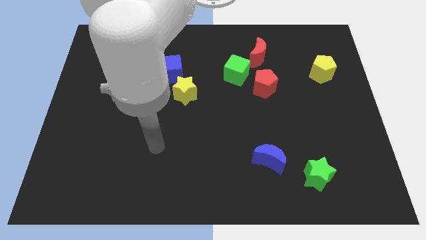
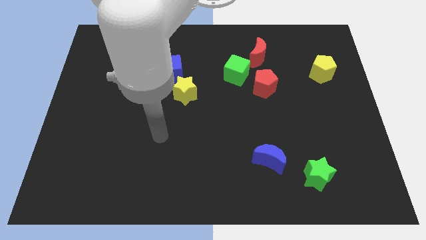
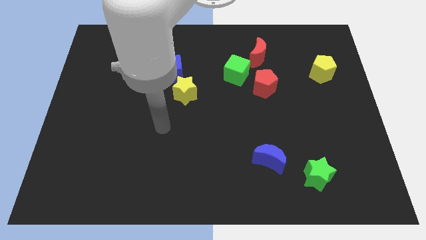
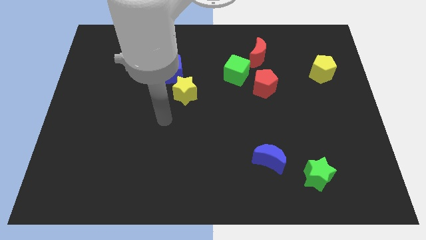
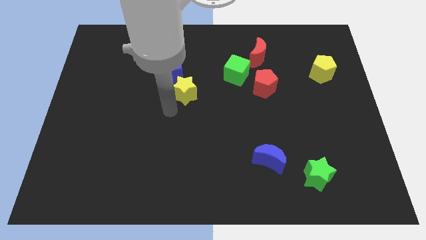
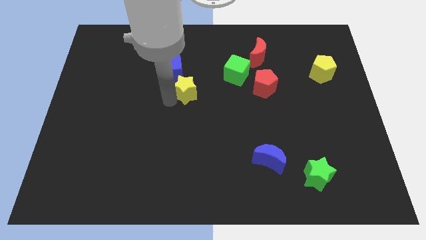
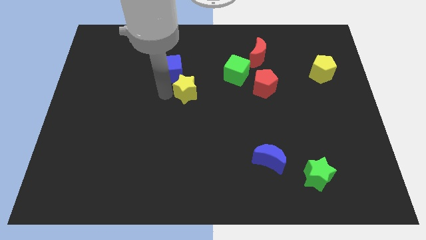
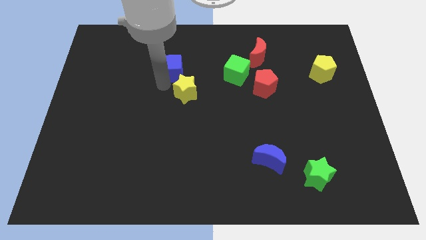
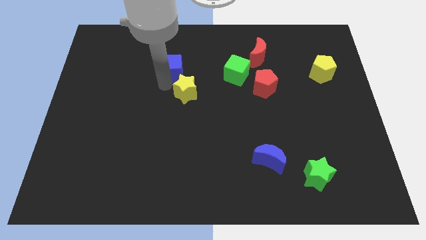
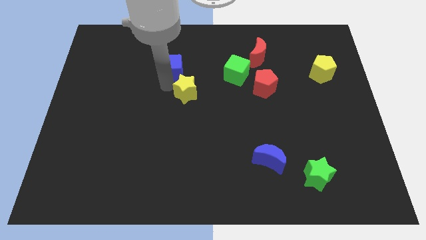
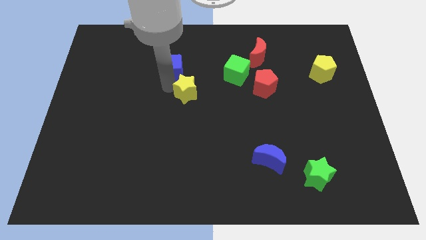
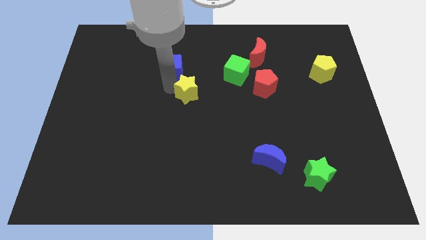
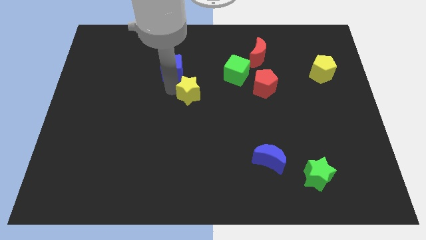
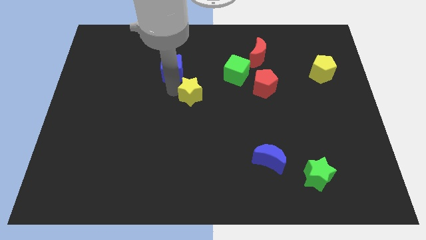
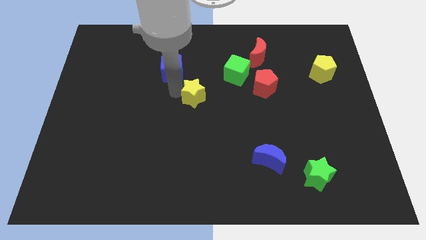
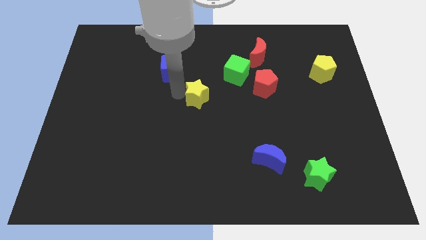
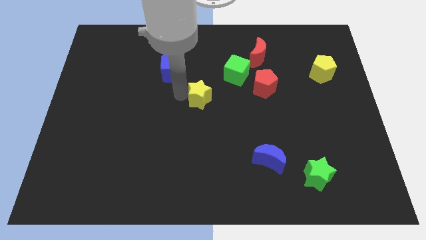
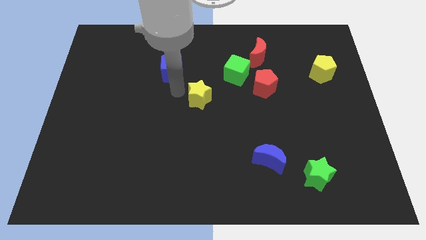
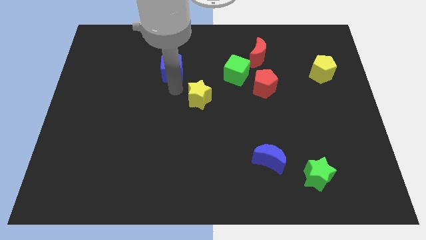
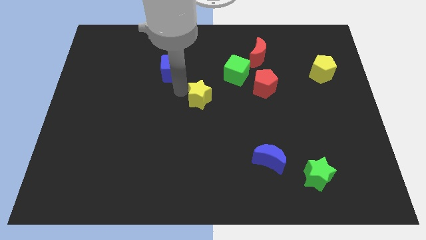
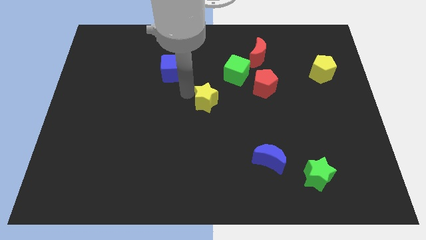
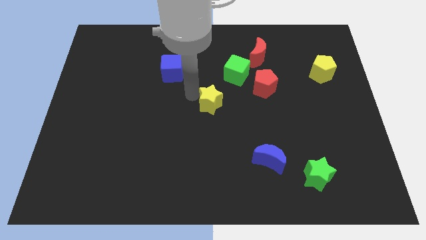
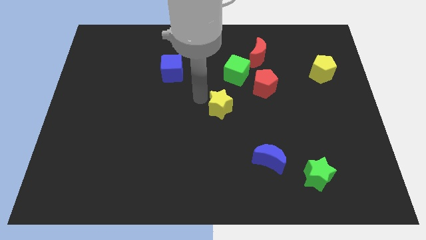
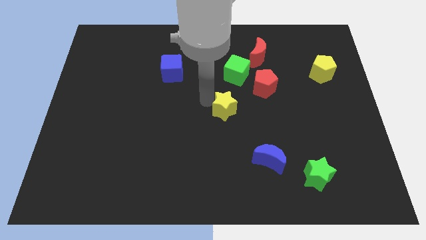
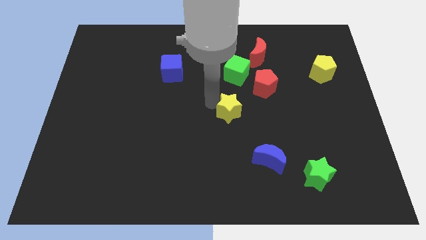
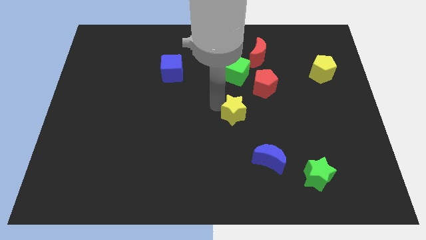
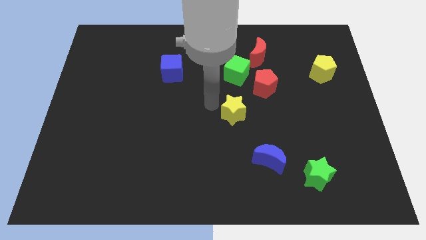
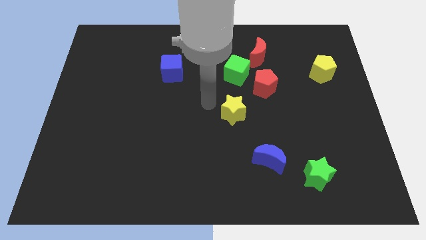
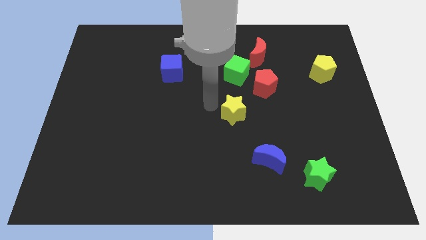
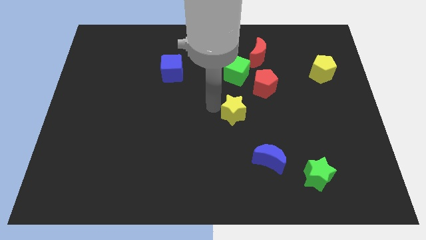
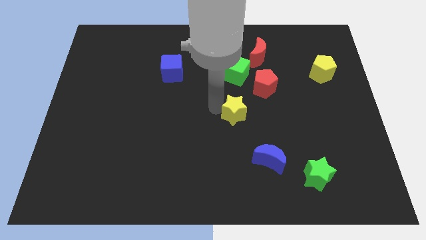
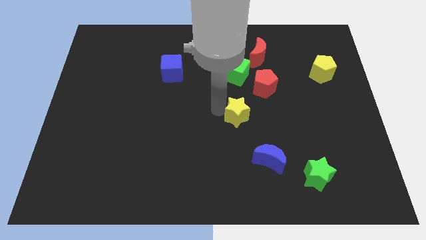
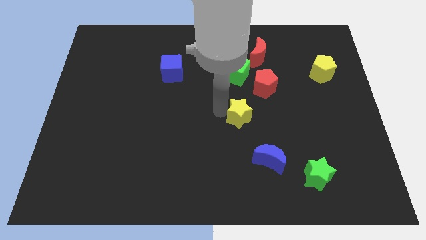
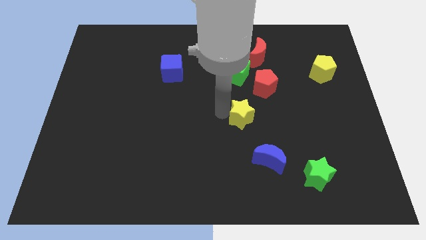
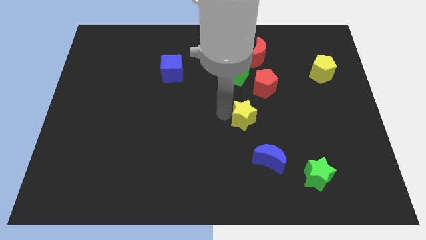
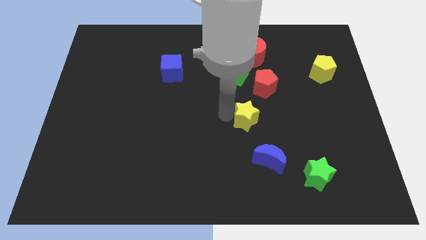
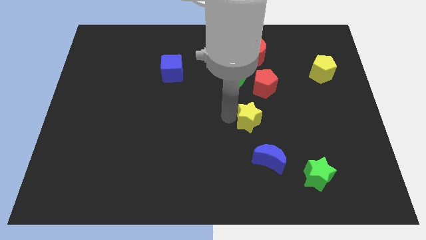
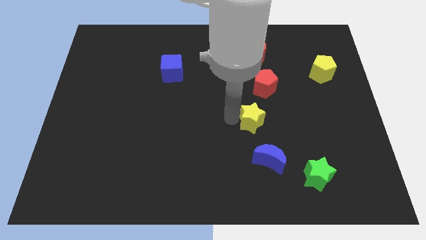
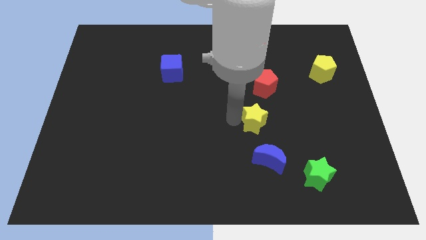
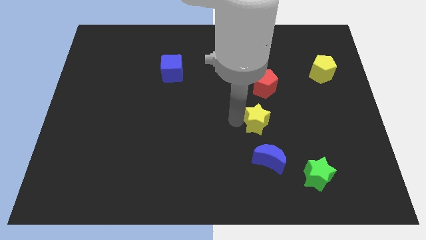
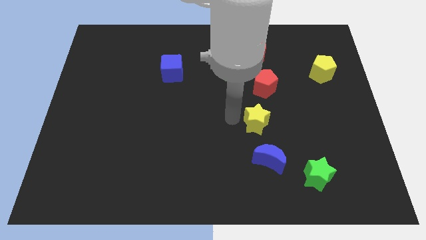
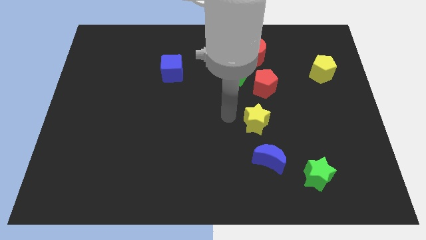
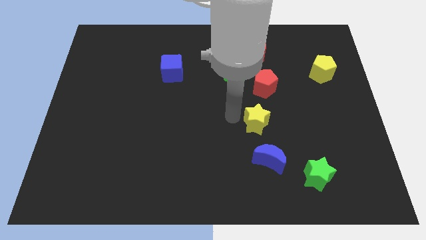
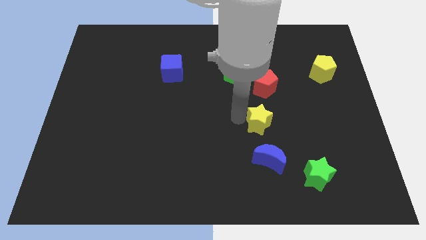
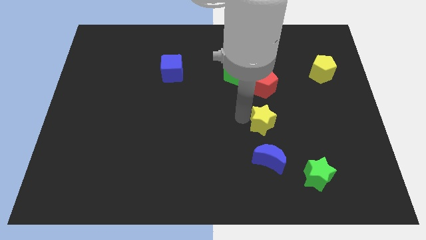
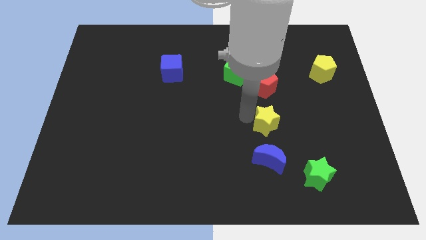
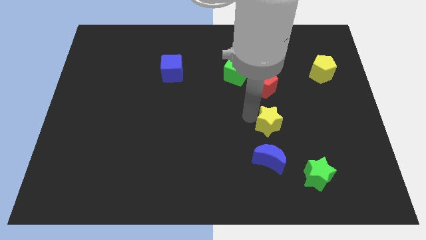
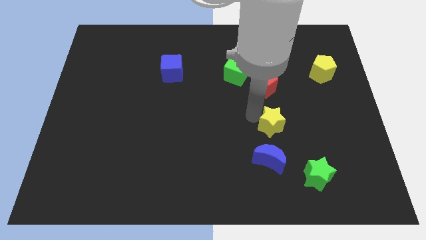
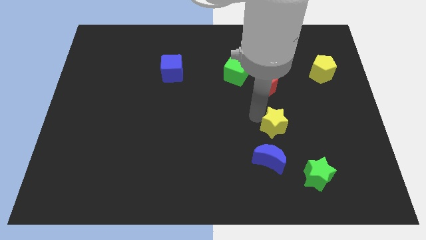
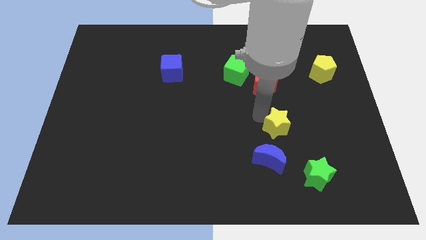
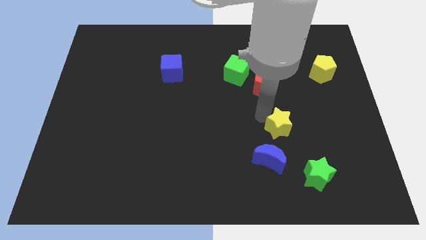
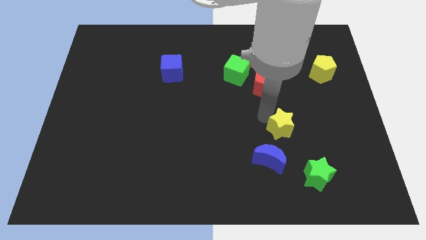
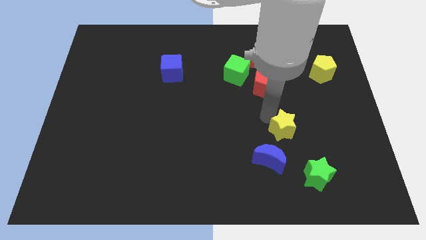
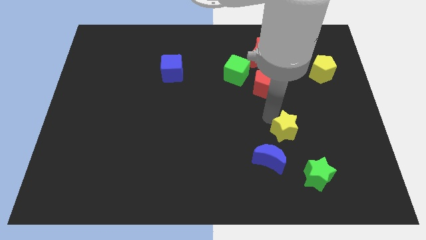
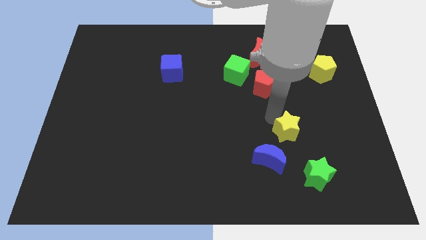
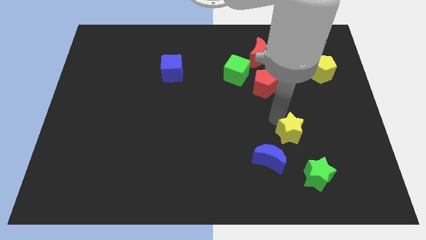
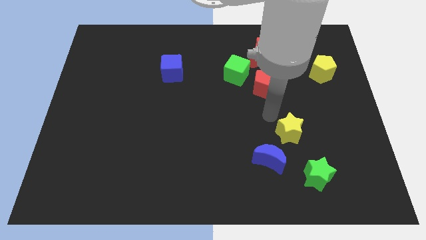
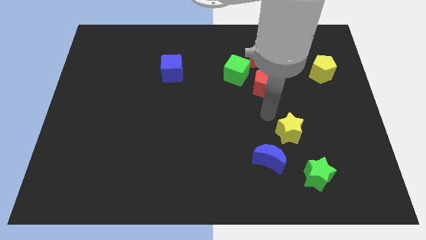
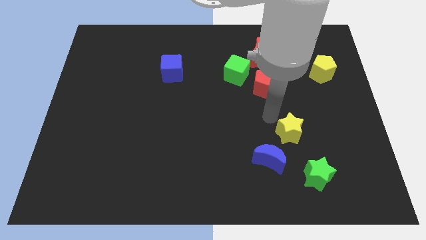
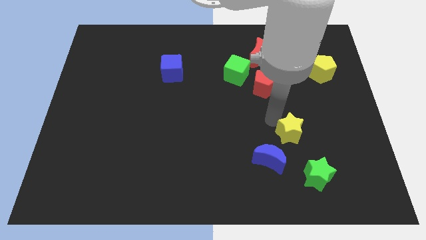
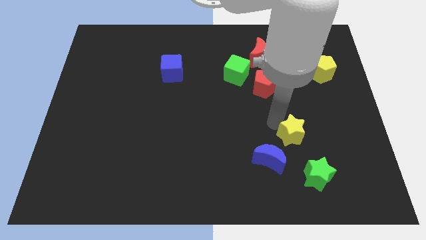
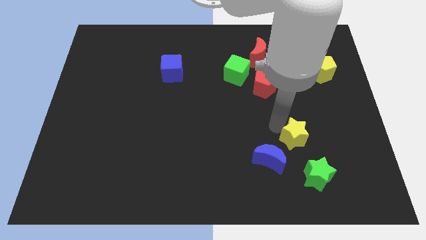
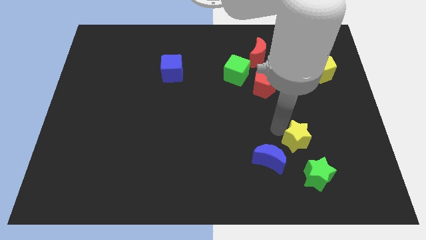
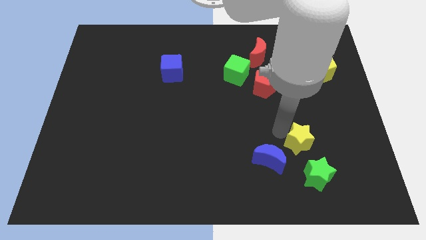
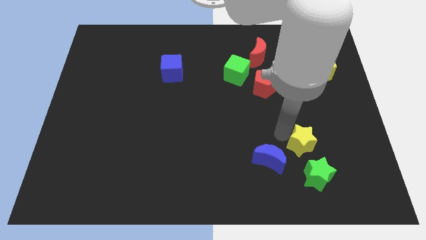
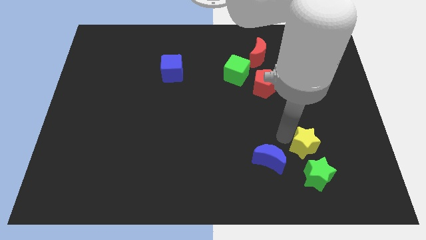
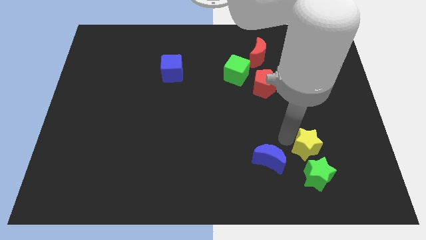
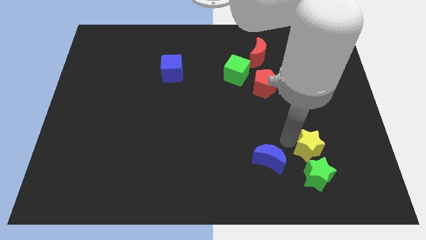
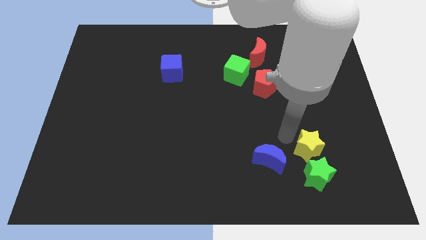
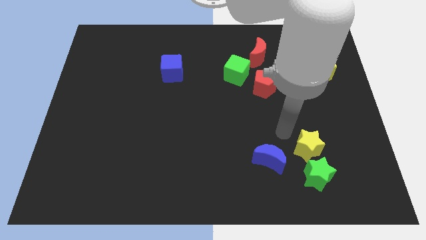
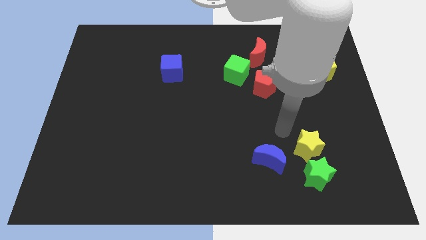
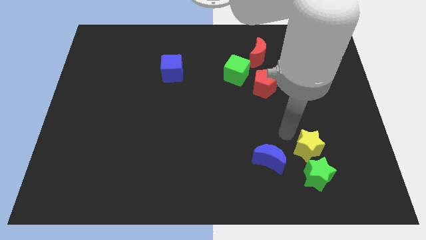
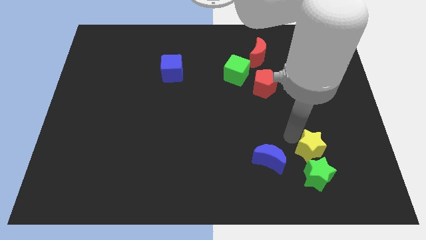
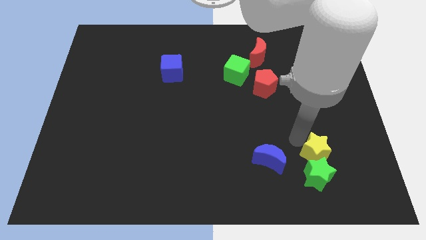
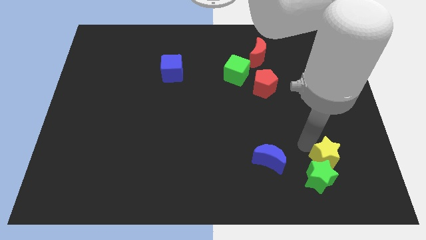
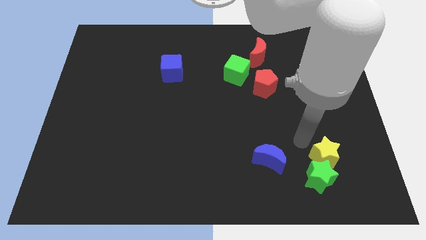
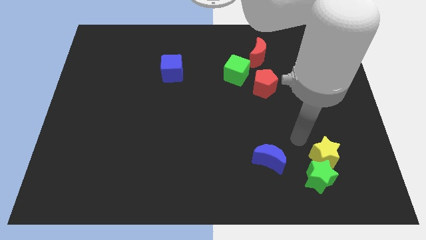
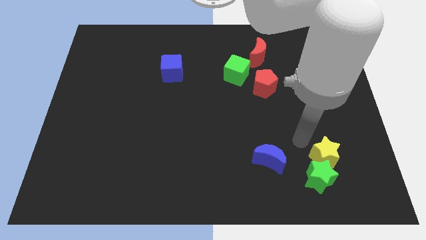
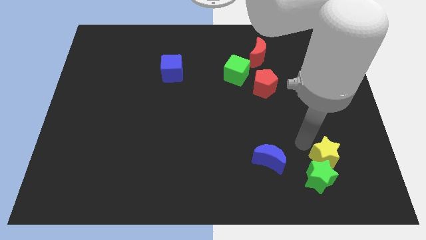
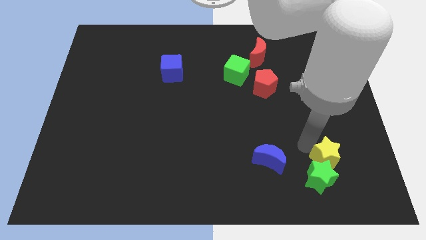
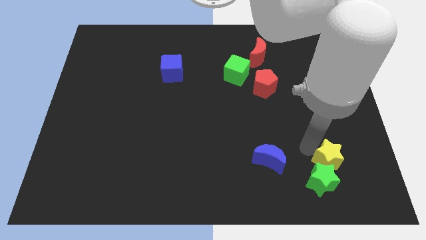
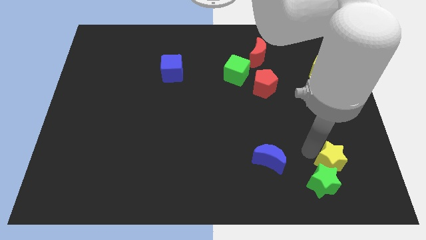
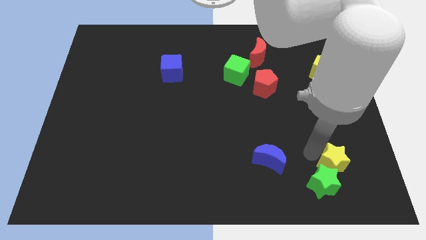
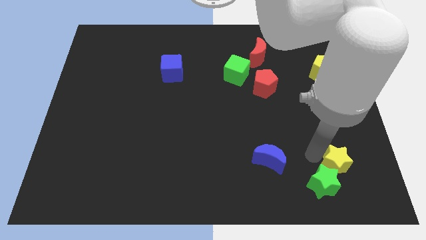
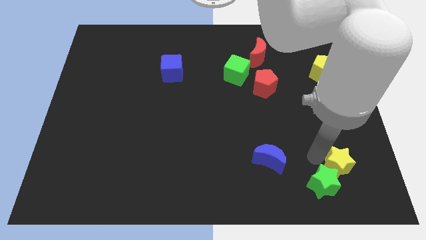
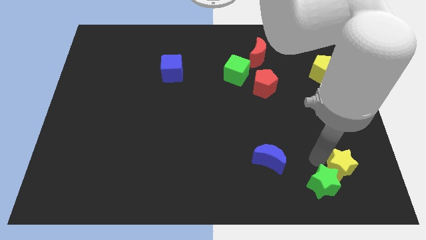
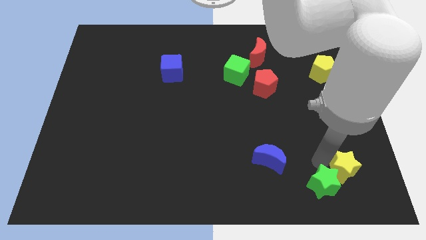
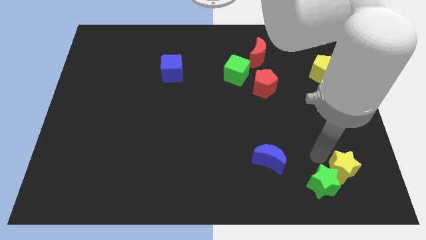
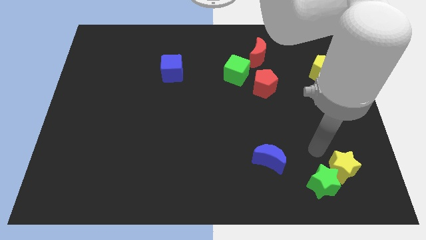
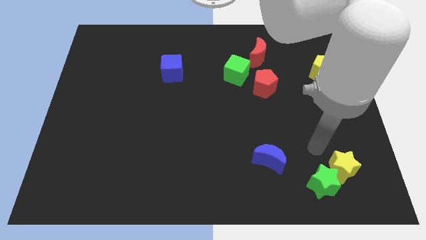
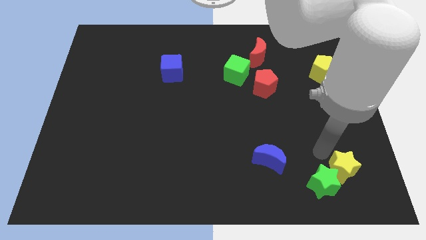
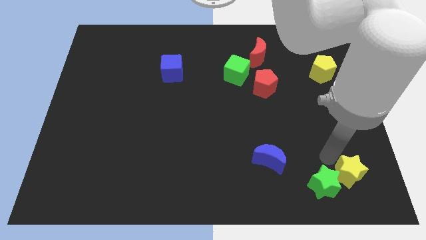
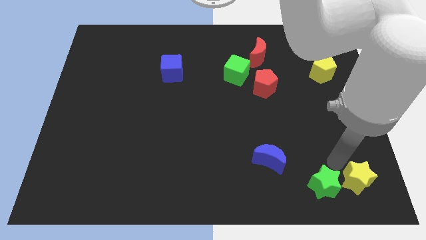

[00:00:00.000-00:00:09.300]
move the yellow star to the bottom right
